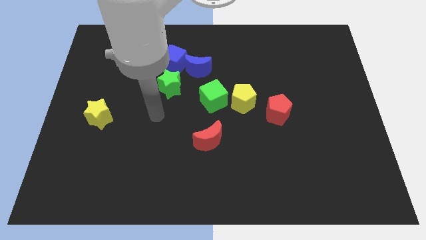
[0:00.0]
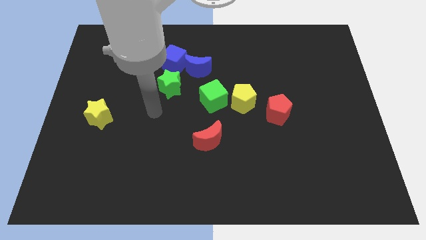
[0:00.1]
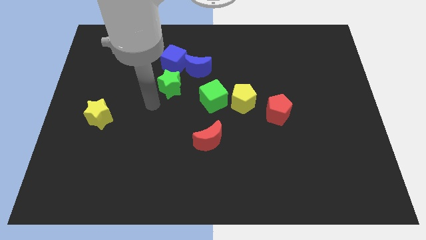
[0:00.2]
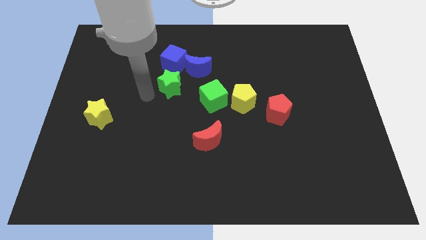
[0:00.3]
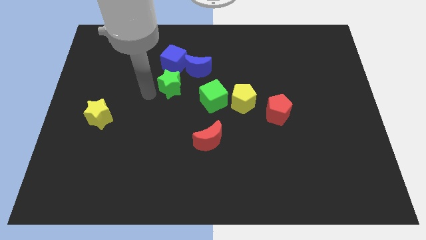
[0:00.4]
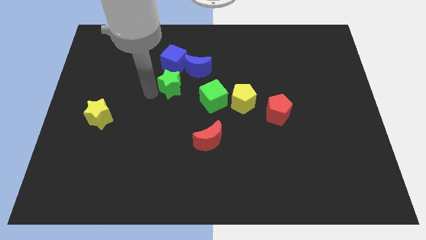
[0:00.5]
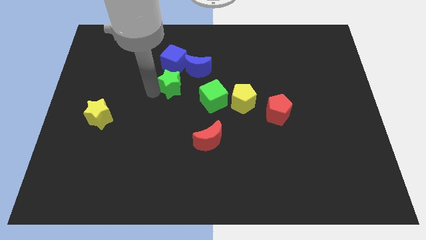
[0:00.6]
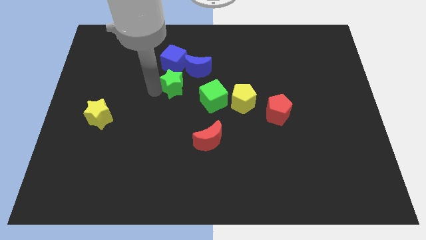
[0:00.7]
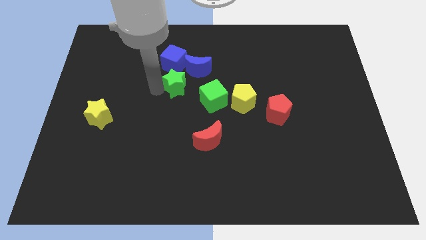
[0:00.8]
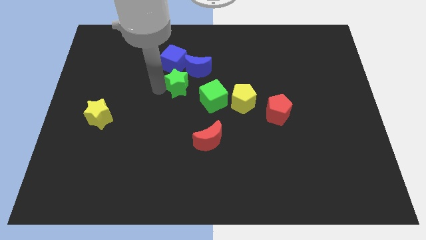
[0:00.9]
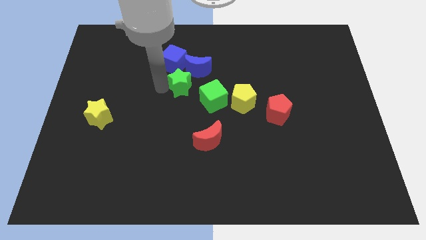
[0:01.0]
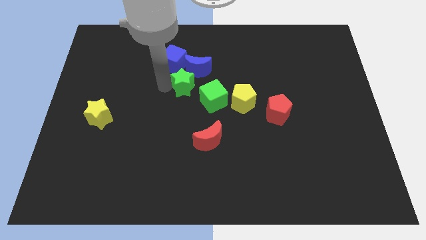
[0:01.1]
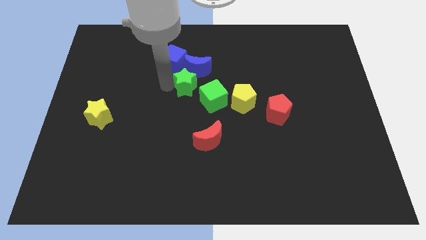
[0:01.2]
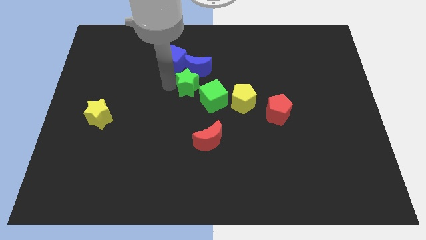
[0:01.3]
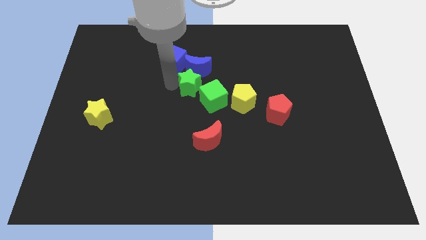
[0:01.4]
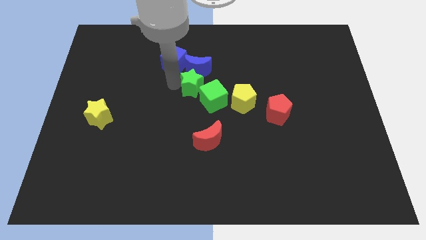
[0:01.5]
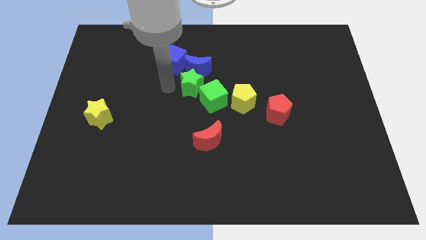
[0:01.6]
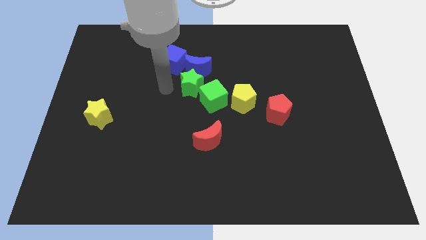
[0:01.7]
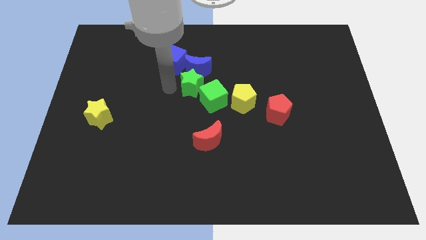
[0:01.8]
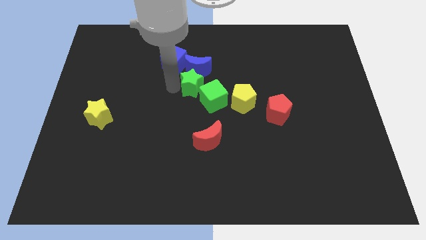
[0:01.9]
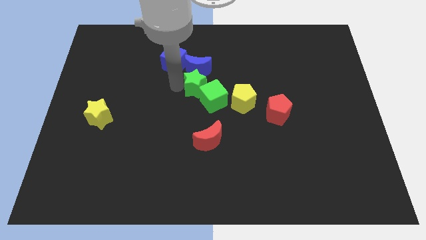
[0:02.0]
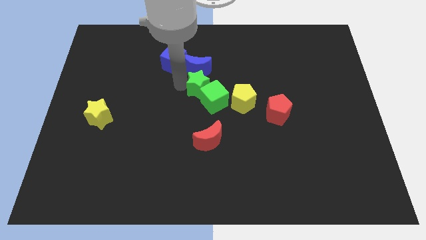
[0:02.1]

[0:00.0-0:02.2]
push the green star to the right a little bit

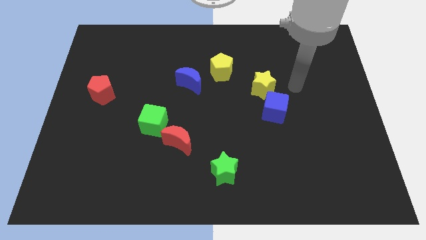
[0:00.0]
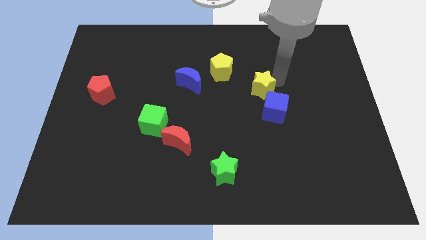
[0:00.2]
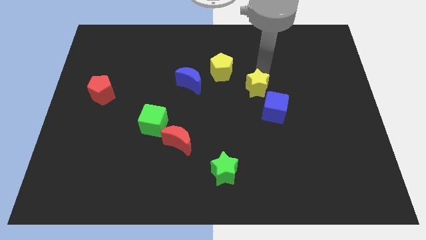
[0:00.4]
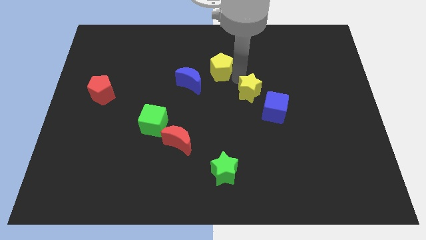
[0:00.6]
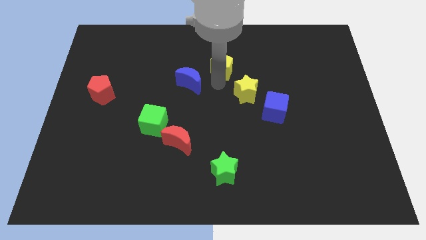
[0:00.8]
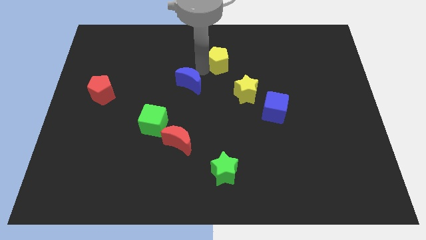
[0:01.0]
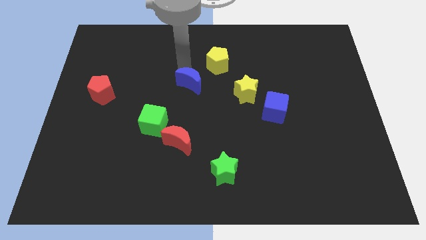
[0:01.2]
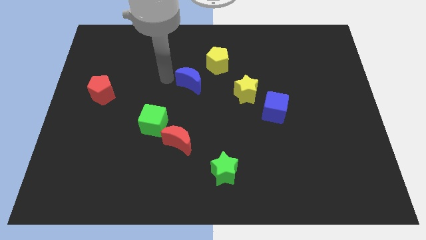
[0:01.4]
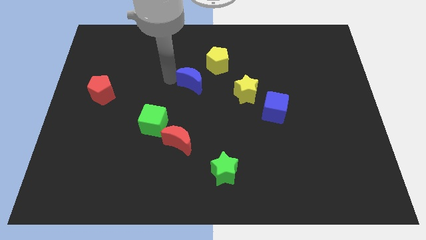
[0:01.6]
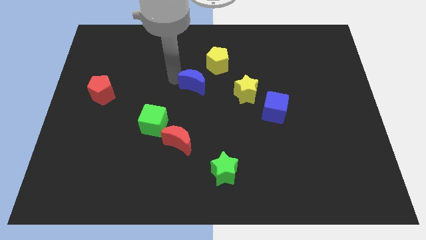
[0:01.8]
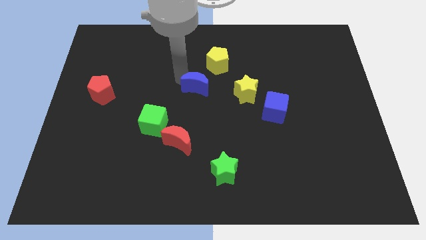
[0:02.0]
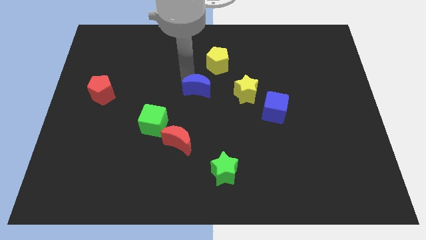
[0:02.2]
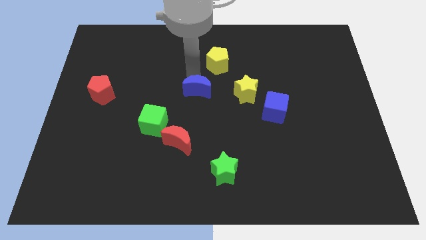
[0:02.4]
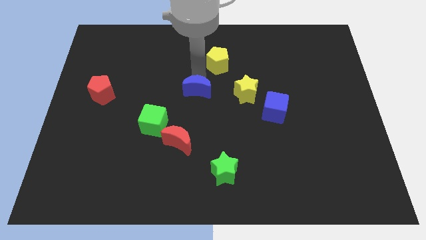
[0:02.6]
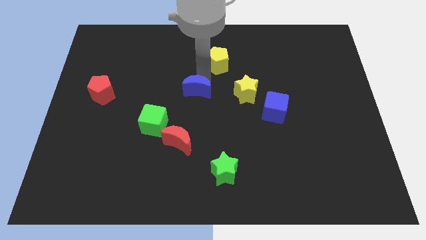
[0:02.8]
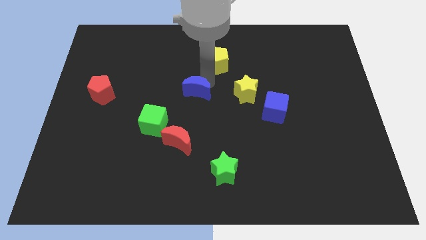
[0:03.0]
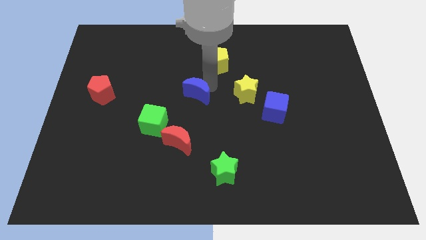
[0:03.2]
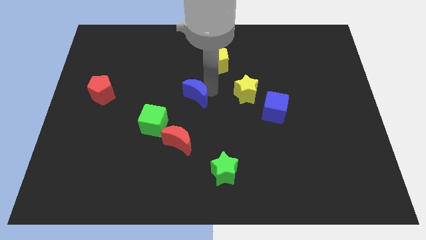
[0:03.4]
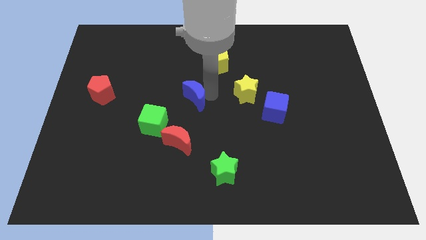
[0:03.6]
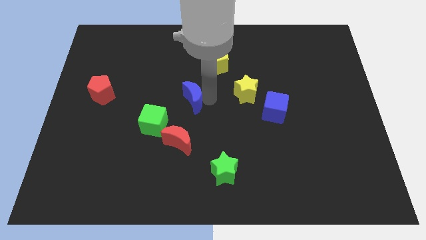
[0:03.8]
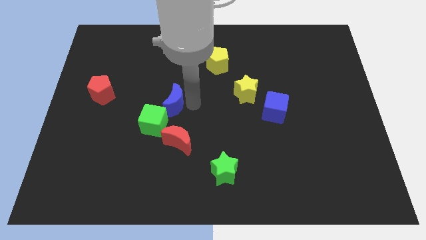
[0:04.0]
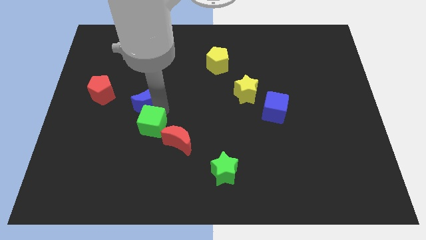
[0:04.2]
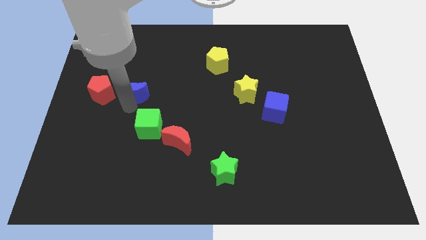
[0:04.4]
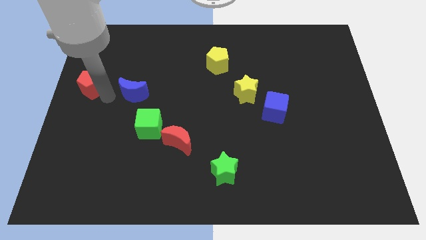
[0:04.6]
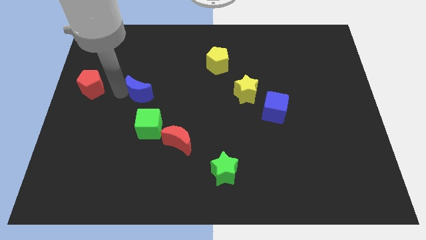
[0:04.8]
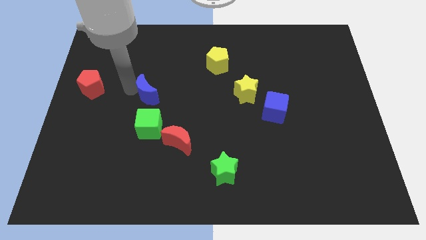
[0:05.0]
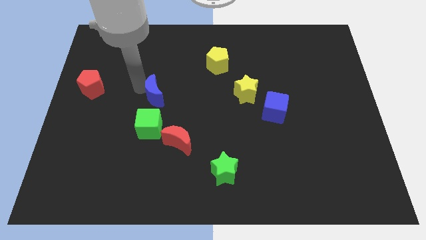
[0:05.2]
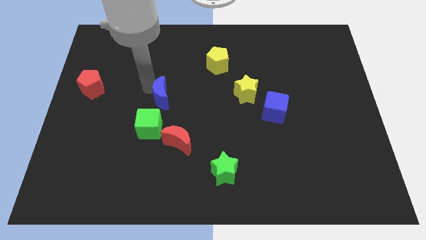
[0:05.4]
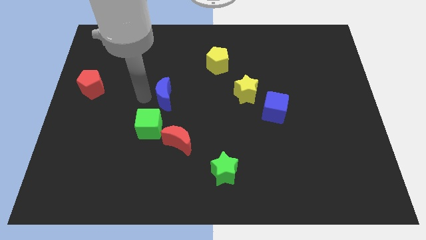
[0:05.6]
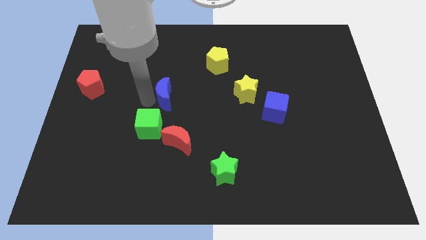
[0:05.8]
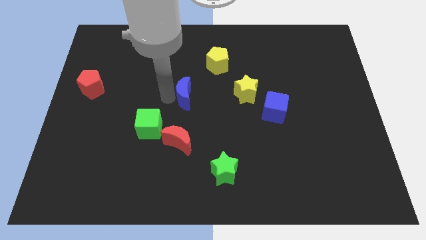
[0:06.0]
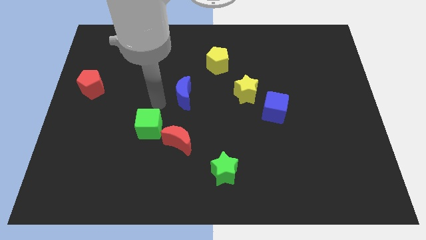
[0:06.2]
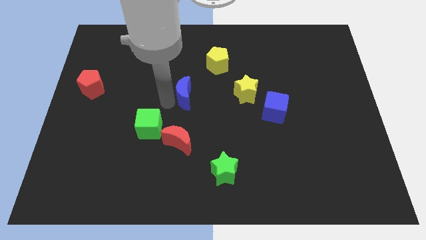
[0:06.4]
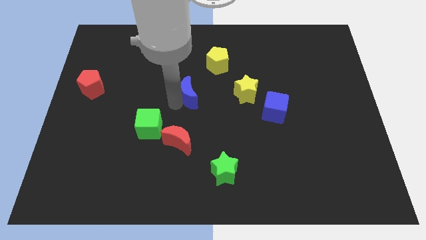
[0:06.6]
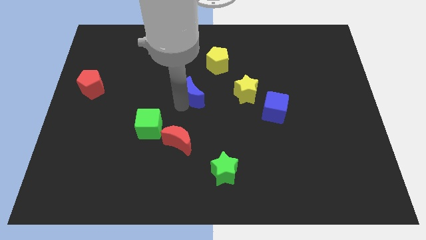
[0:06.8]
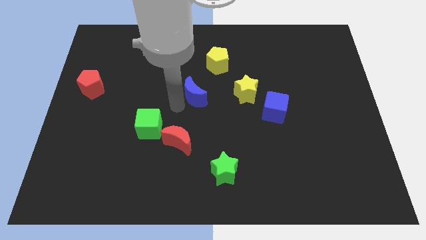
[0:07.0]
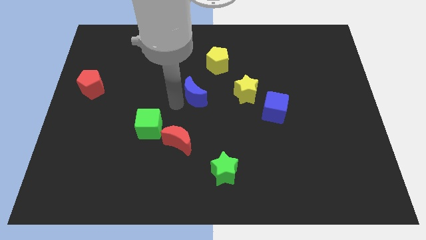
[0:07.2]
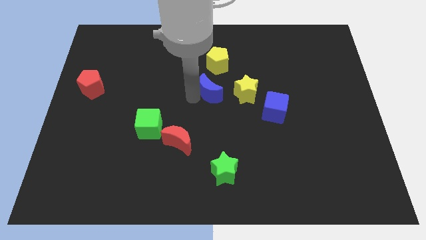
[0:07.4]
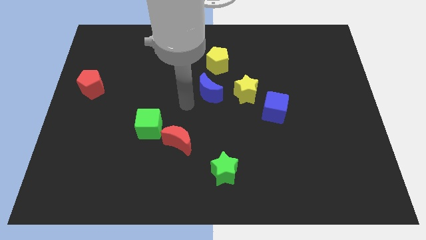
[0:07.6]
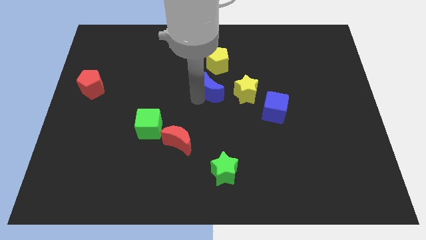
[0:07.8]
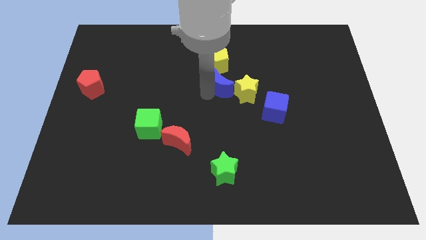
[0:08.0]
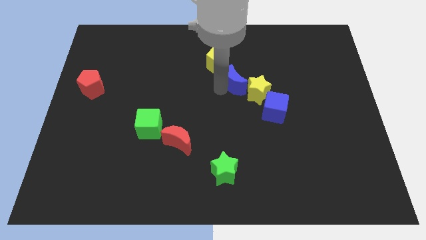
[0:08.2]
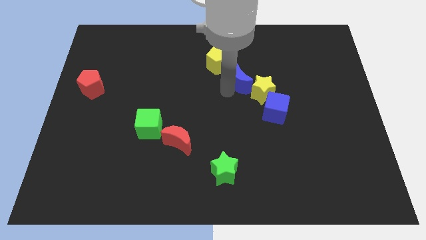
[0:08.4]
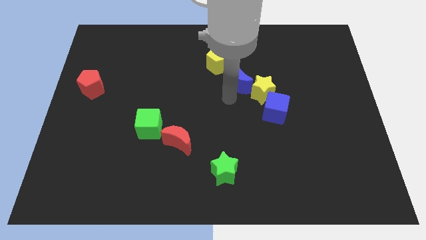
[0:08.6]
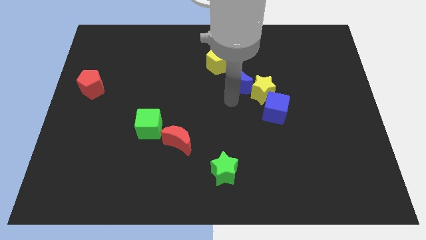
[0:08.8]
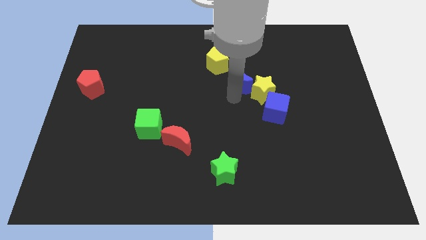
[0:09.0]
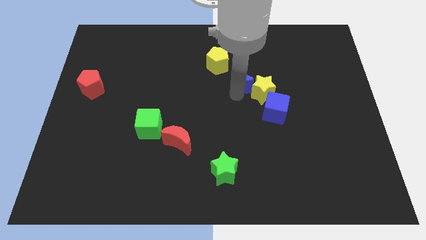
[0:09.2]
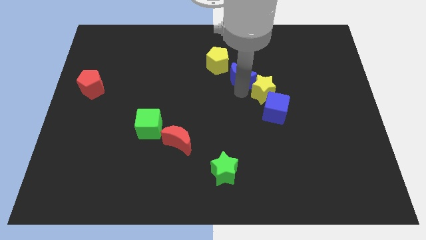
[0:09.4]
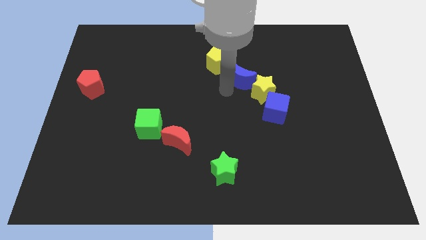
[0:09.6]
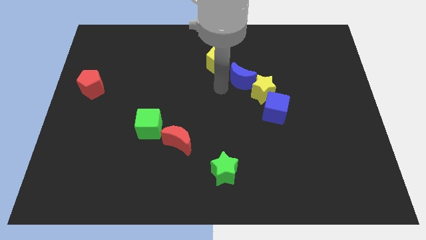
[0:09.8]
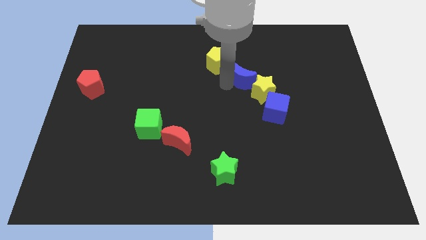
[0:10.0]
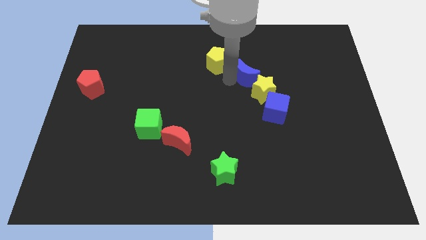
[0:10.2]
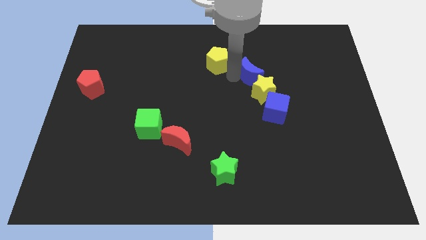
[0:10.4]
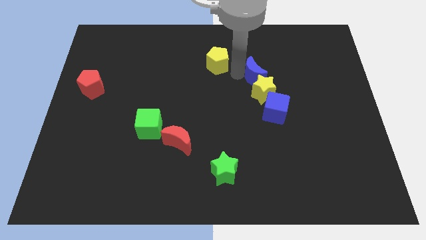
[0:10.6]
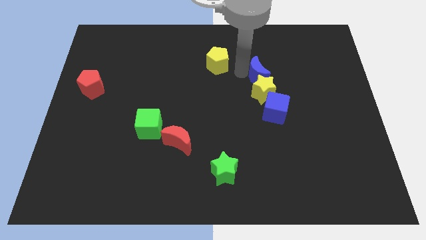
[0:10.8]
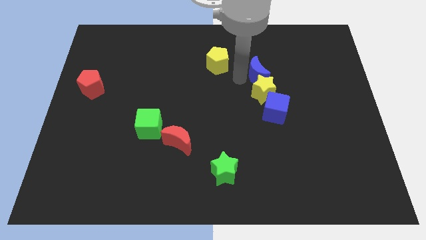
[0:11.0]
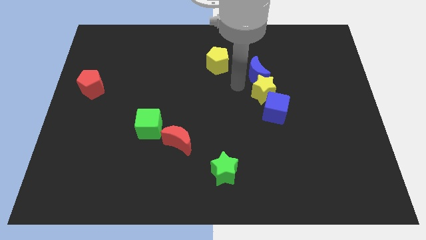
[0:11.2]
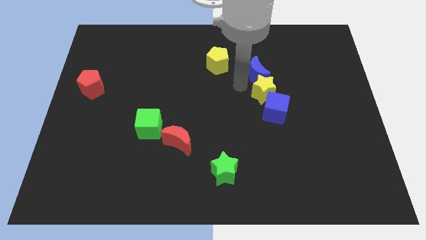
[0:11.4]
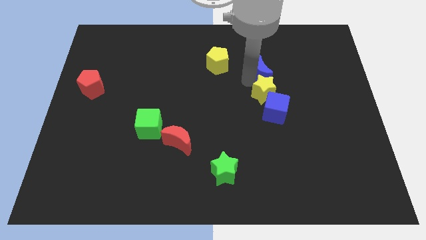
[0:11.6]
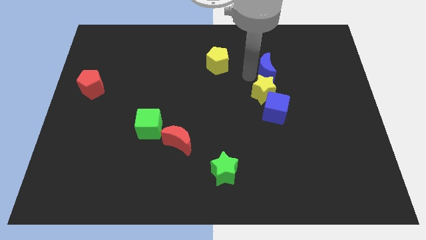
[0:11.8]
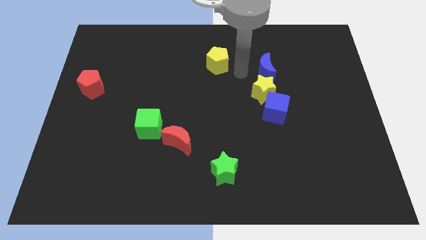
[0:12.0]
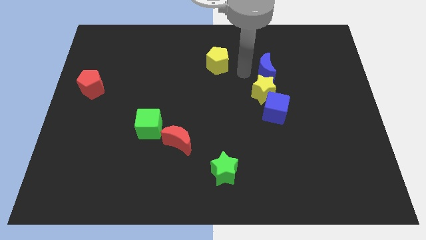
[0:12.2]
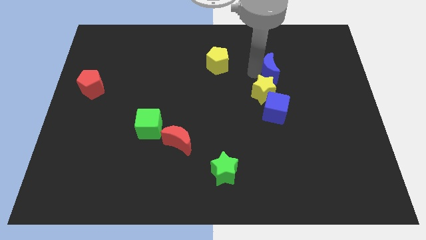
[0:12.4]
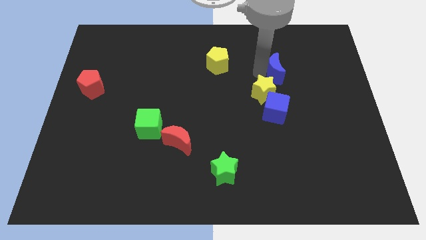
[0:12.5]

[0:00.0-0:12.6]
slide the blue moon to the right
